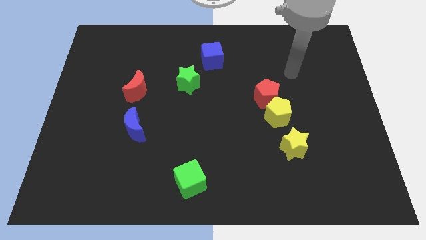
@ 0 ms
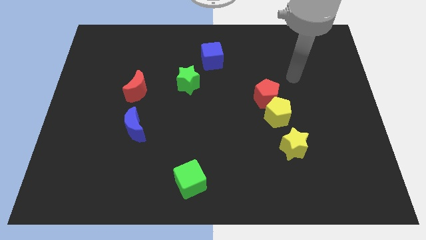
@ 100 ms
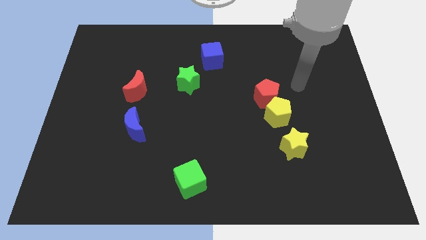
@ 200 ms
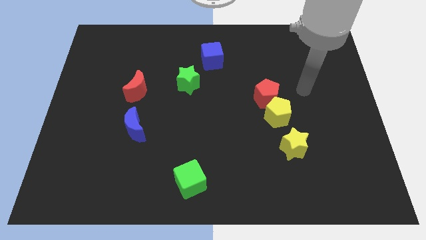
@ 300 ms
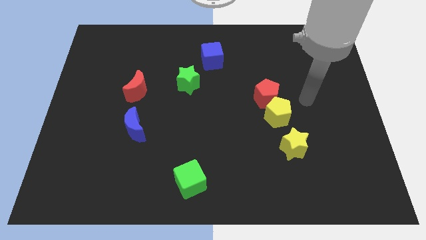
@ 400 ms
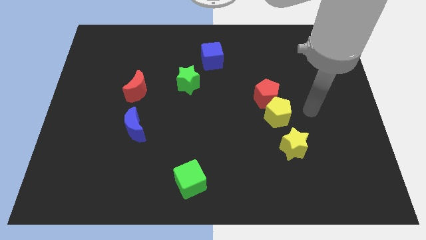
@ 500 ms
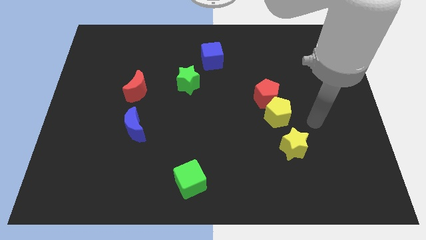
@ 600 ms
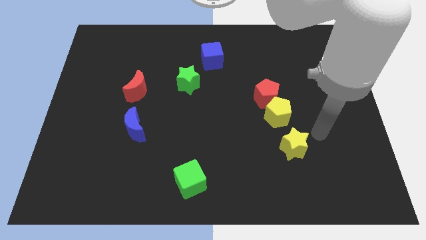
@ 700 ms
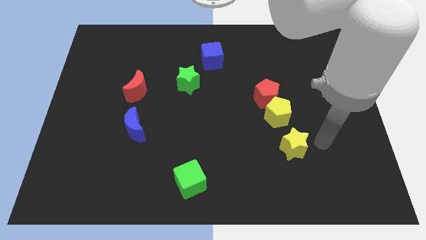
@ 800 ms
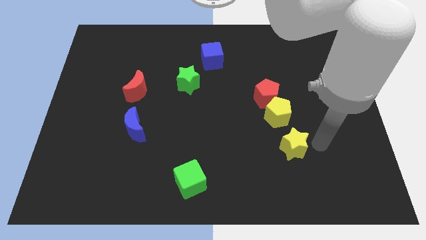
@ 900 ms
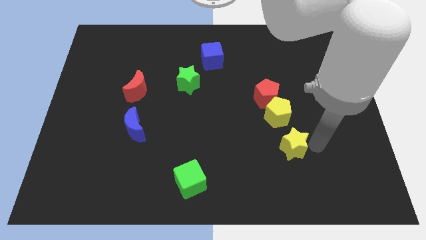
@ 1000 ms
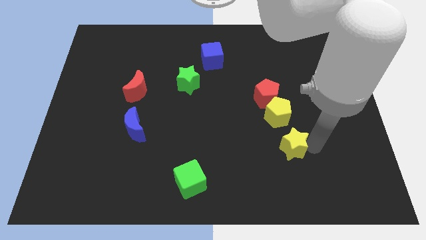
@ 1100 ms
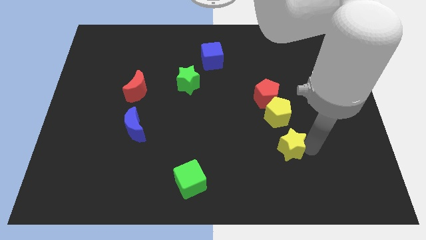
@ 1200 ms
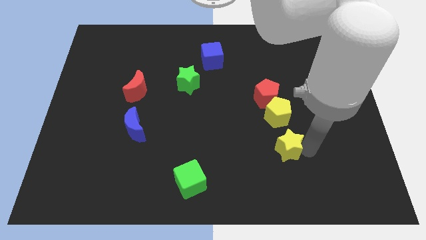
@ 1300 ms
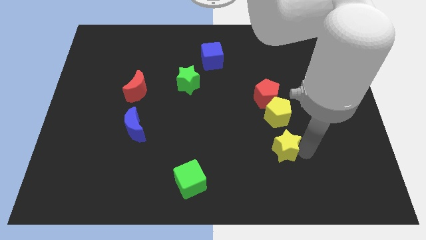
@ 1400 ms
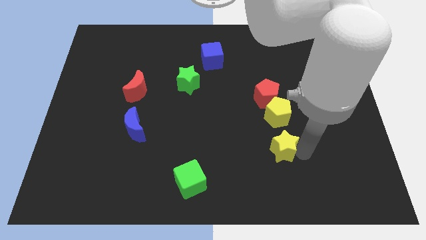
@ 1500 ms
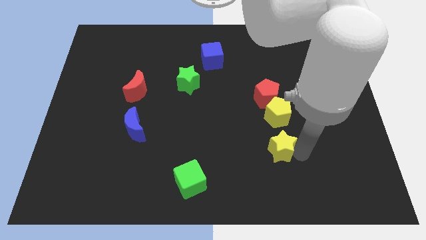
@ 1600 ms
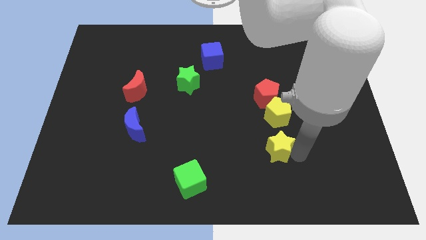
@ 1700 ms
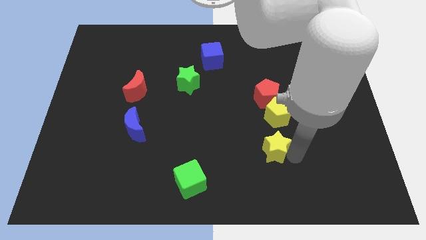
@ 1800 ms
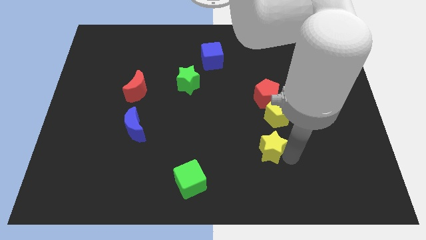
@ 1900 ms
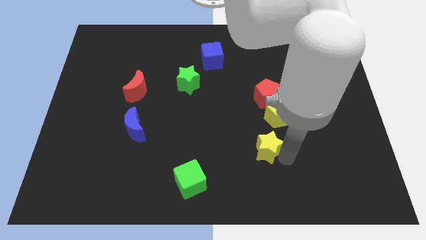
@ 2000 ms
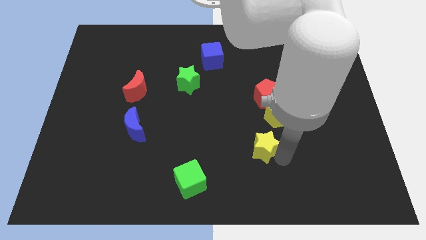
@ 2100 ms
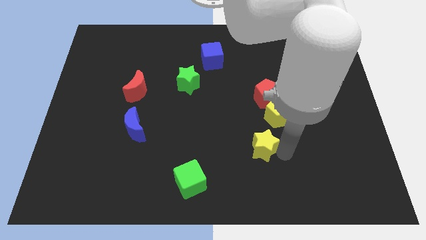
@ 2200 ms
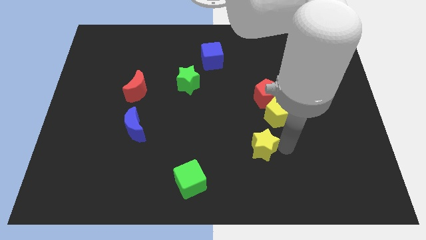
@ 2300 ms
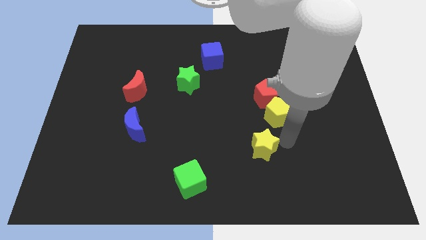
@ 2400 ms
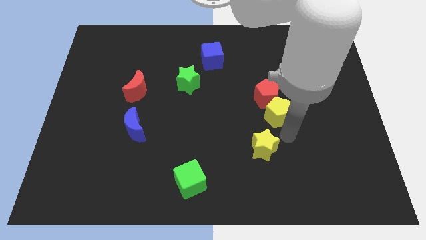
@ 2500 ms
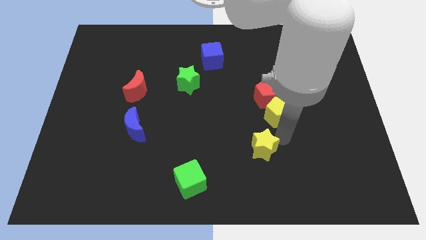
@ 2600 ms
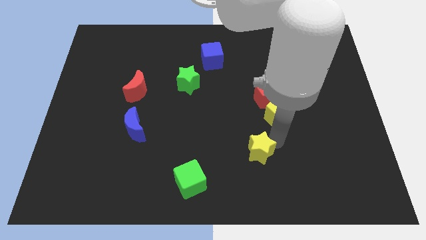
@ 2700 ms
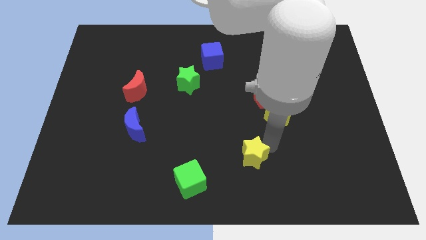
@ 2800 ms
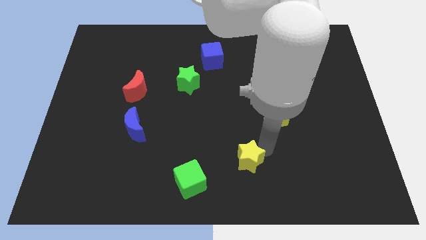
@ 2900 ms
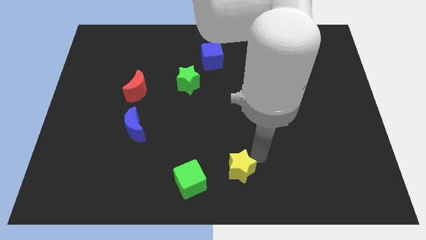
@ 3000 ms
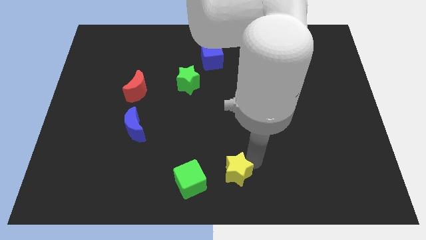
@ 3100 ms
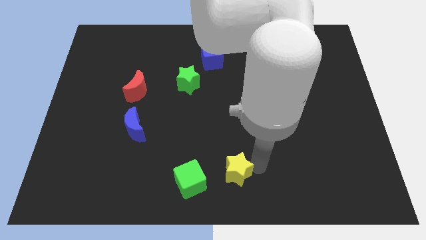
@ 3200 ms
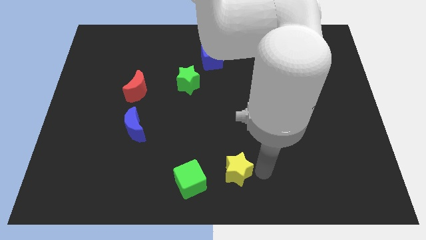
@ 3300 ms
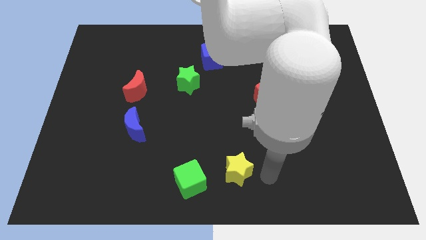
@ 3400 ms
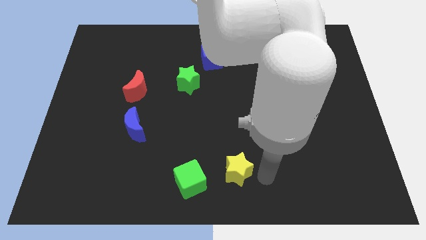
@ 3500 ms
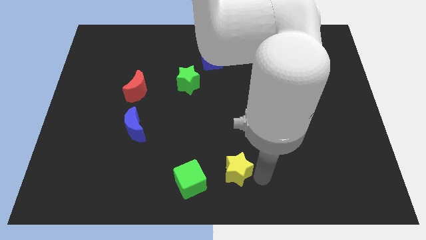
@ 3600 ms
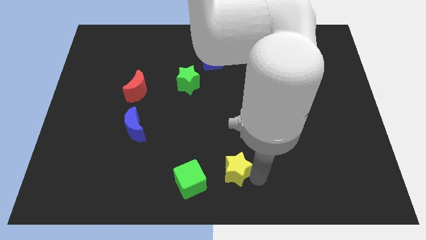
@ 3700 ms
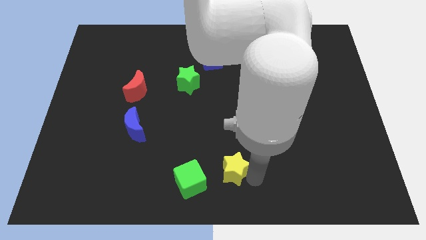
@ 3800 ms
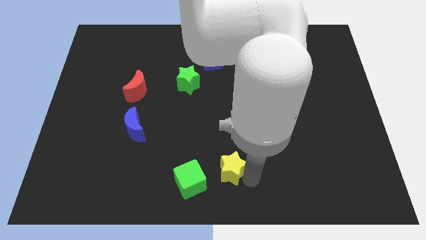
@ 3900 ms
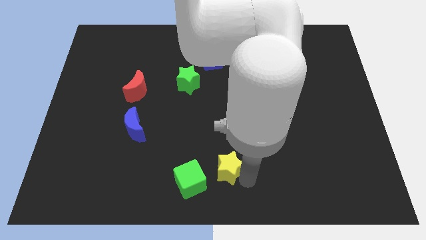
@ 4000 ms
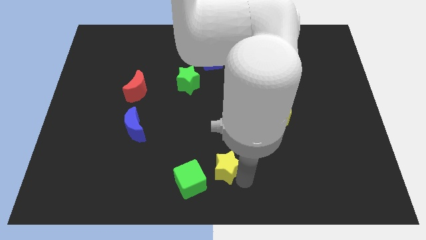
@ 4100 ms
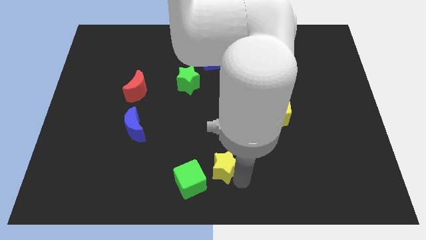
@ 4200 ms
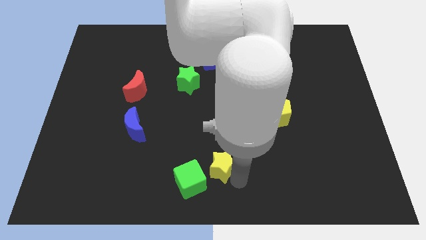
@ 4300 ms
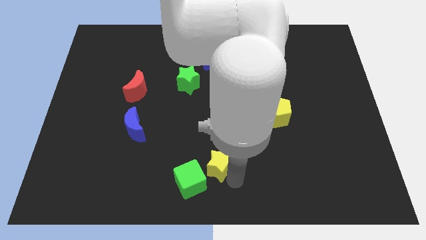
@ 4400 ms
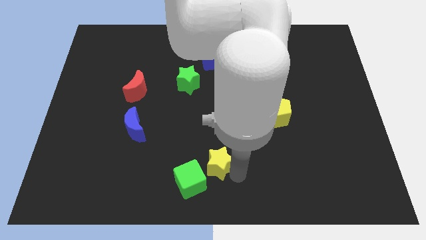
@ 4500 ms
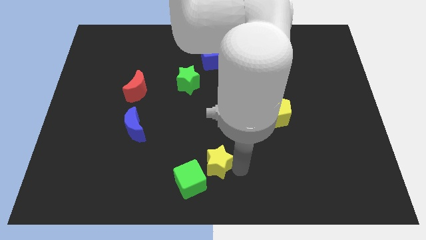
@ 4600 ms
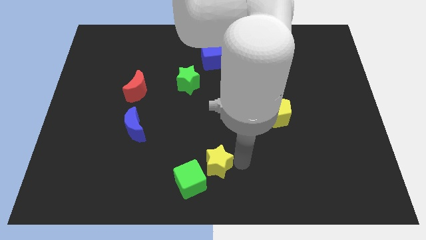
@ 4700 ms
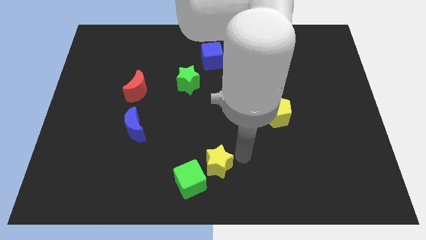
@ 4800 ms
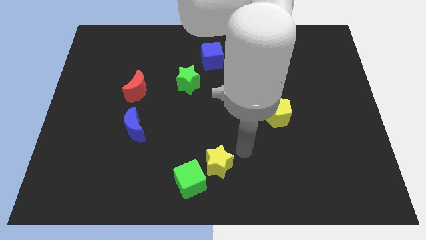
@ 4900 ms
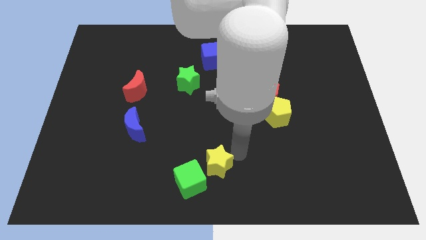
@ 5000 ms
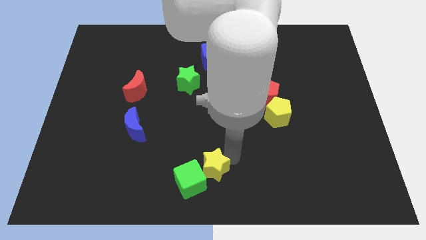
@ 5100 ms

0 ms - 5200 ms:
move the yellow star close to the green cube

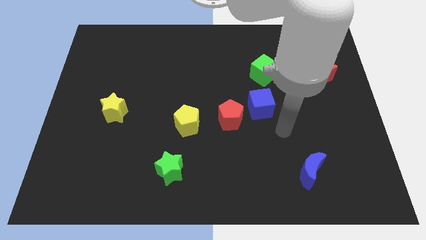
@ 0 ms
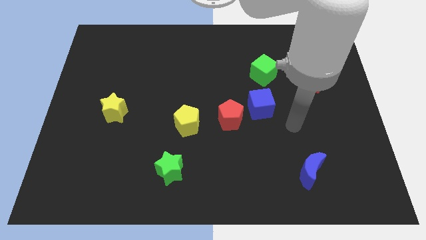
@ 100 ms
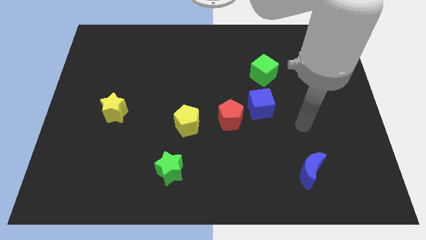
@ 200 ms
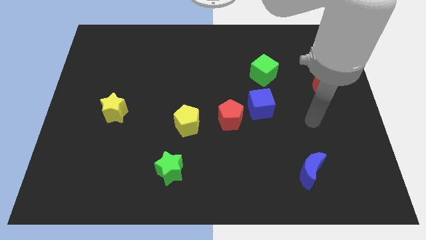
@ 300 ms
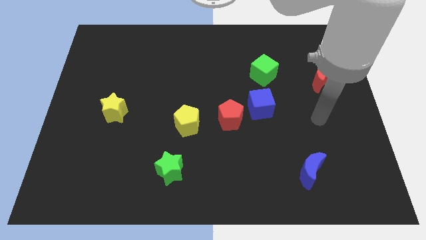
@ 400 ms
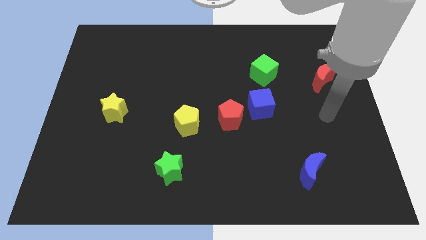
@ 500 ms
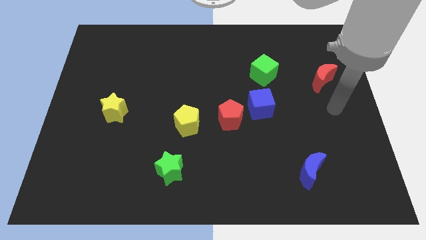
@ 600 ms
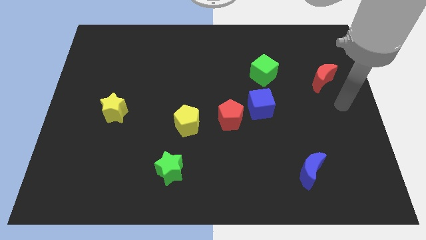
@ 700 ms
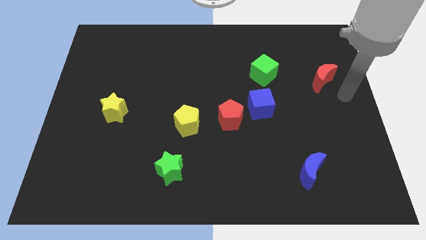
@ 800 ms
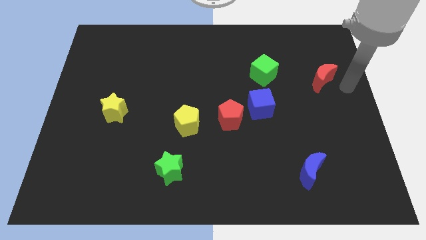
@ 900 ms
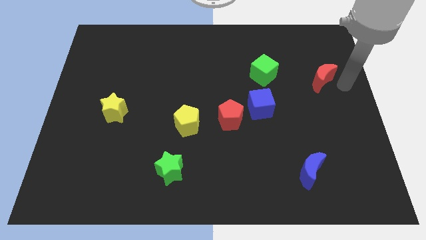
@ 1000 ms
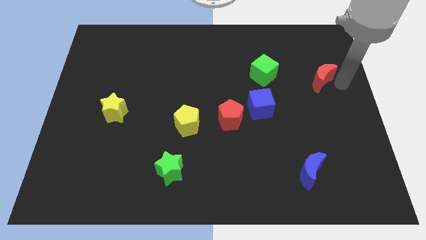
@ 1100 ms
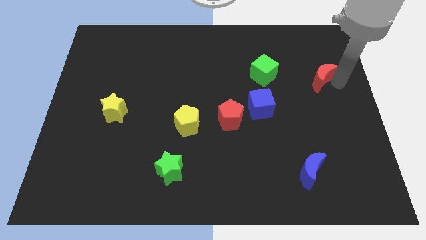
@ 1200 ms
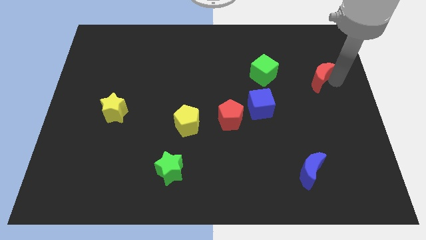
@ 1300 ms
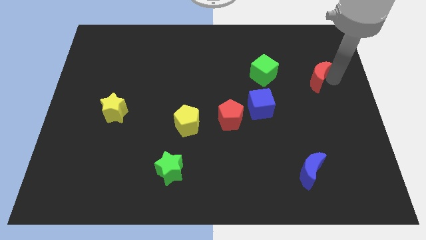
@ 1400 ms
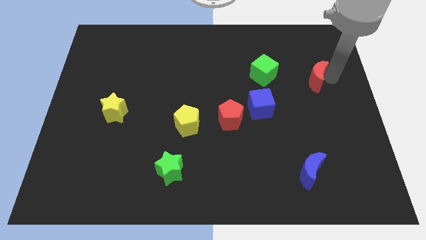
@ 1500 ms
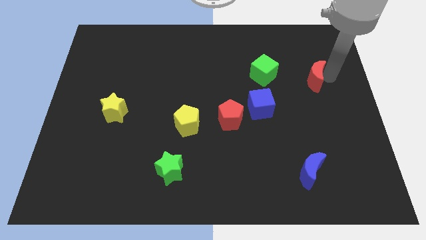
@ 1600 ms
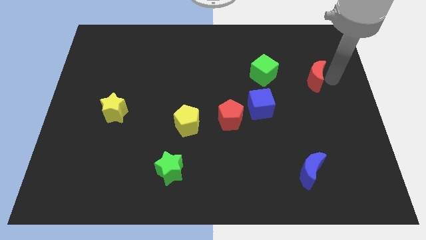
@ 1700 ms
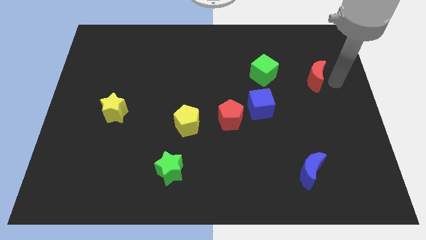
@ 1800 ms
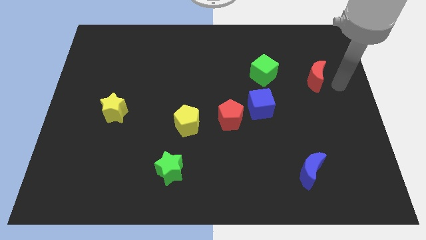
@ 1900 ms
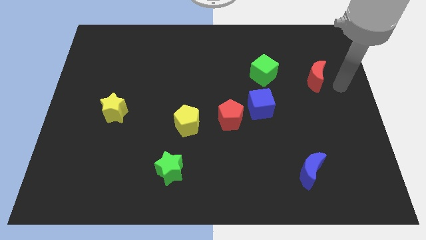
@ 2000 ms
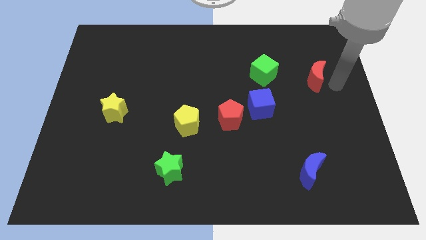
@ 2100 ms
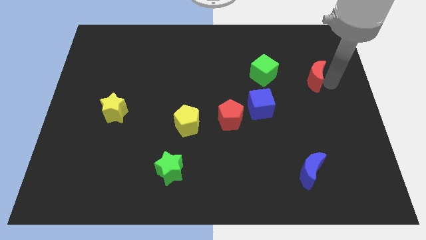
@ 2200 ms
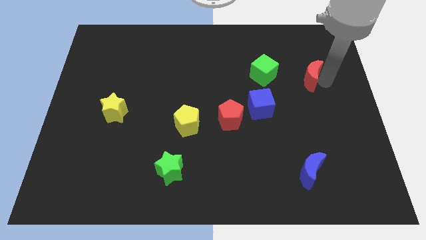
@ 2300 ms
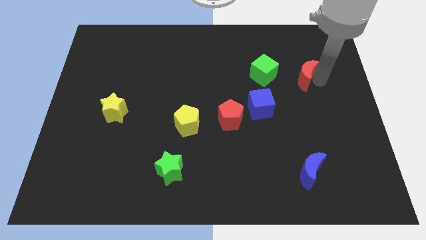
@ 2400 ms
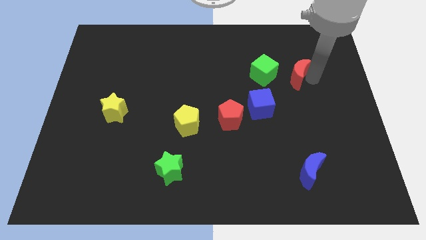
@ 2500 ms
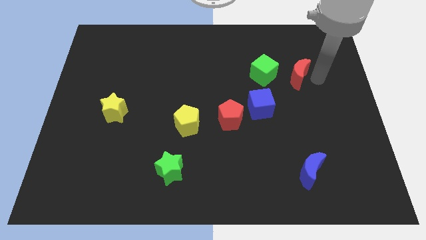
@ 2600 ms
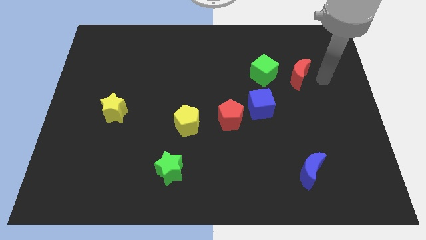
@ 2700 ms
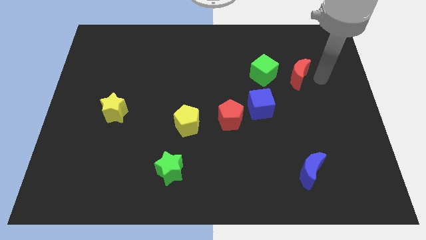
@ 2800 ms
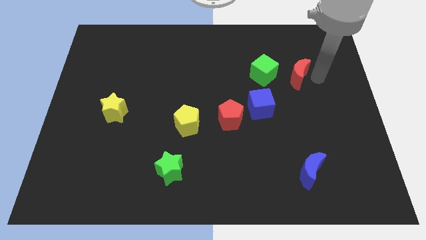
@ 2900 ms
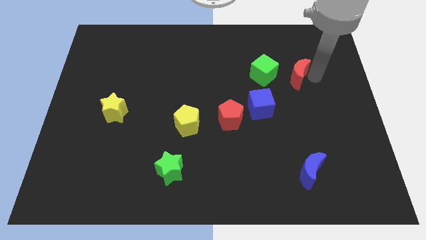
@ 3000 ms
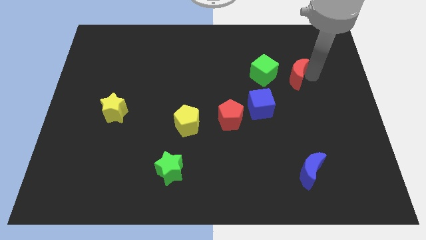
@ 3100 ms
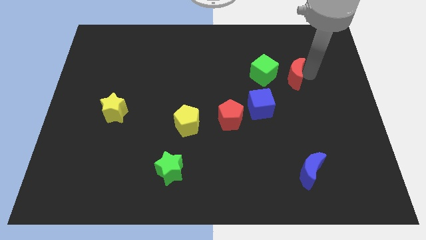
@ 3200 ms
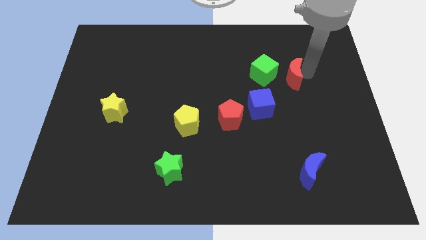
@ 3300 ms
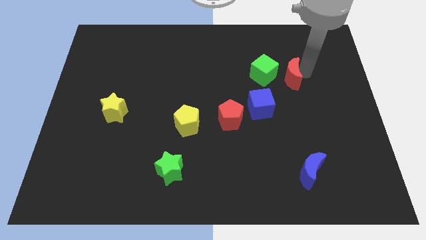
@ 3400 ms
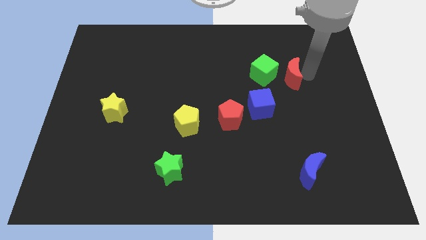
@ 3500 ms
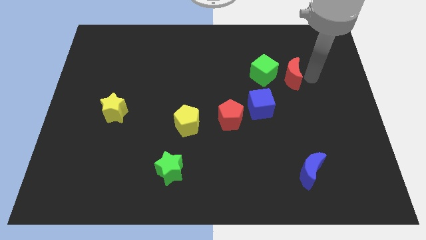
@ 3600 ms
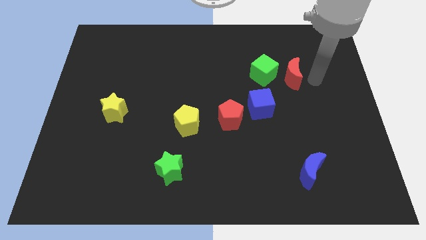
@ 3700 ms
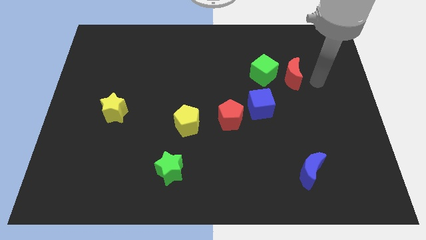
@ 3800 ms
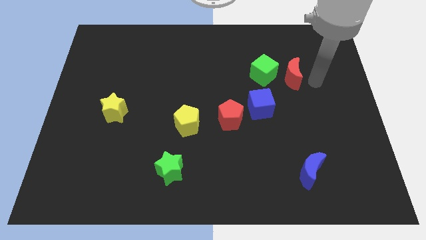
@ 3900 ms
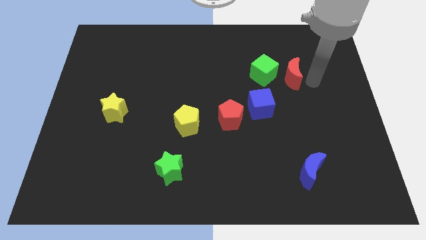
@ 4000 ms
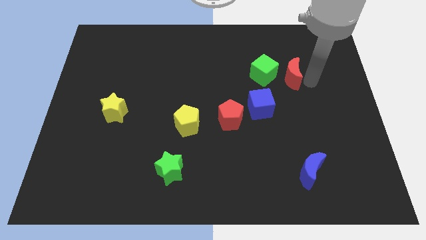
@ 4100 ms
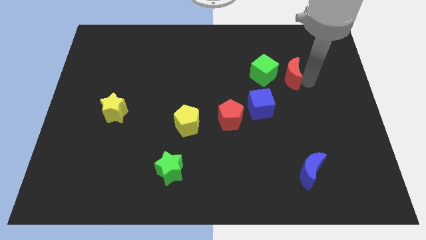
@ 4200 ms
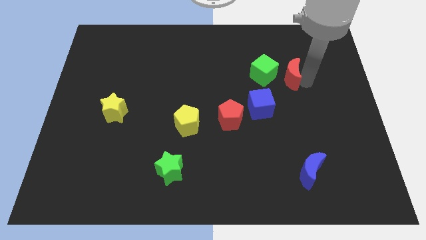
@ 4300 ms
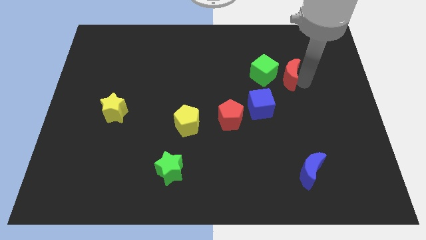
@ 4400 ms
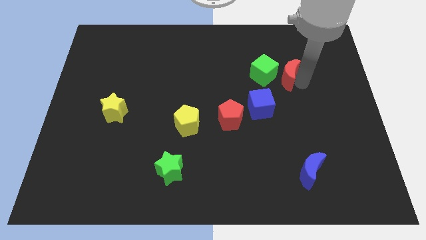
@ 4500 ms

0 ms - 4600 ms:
move the red moon to the green cube
